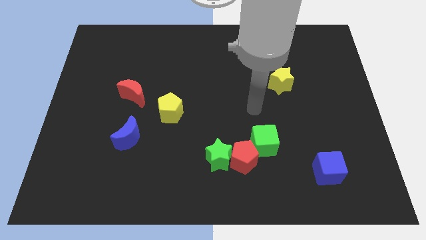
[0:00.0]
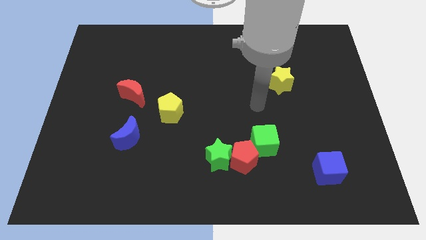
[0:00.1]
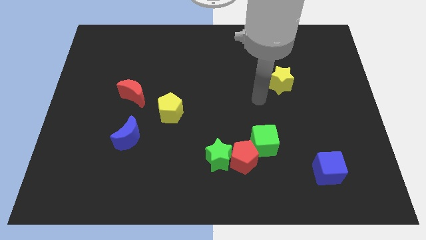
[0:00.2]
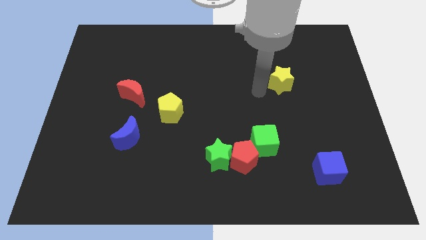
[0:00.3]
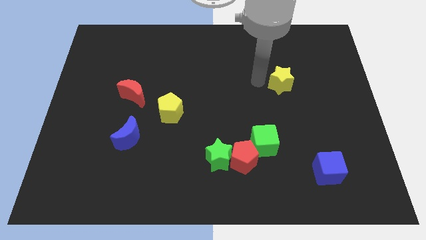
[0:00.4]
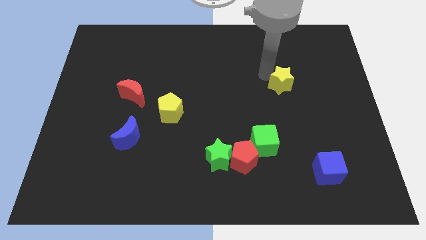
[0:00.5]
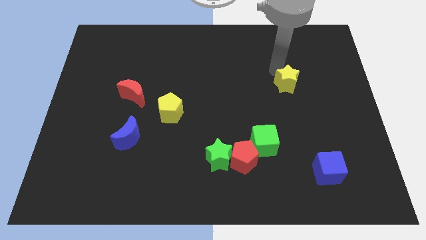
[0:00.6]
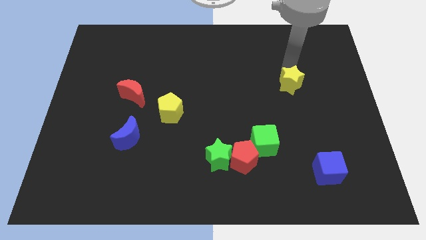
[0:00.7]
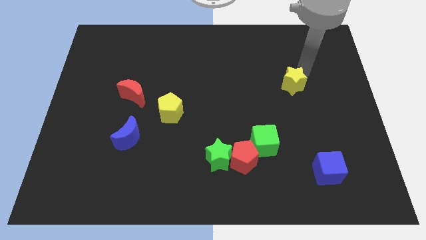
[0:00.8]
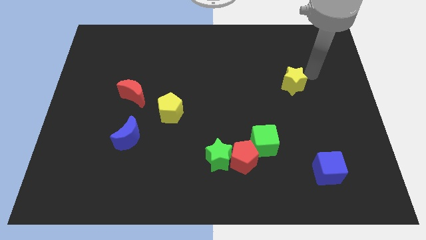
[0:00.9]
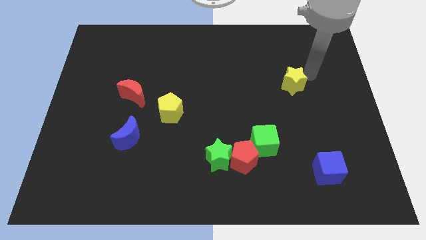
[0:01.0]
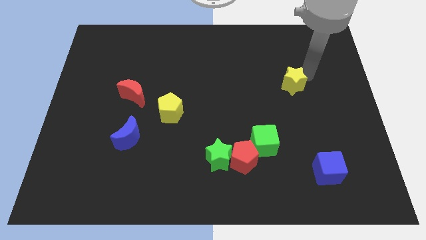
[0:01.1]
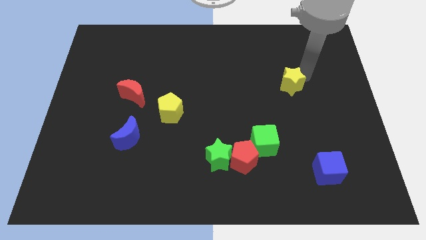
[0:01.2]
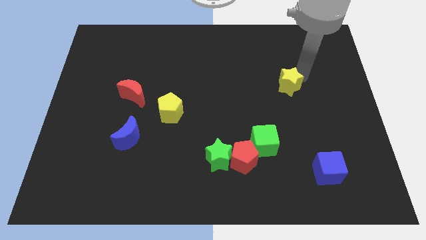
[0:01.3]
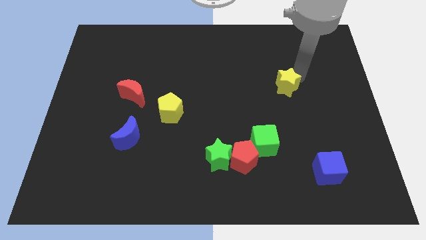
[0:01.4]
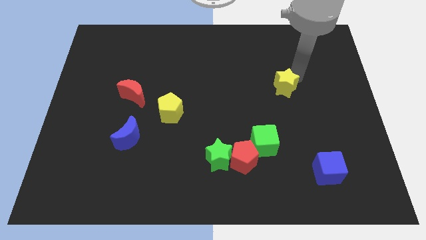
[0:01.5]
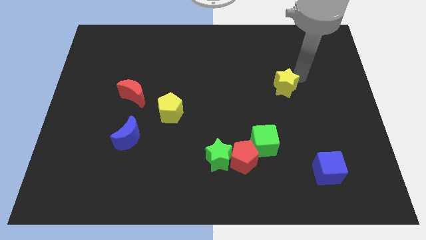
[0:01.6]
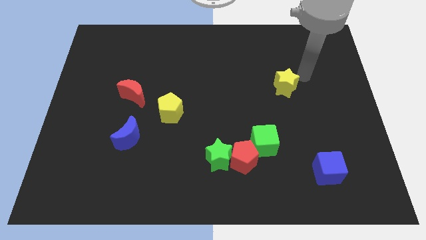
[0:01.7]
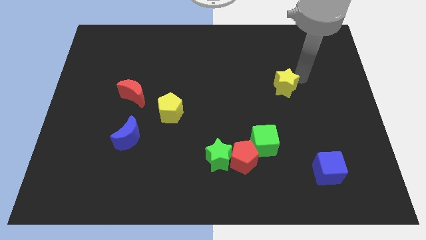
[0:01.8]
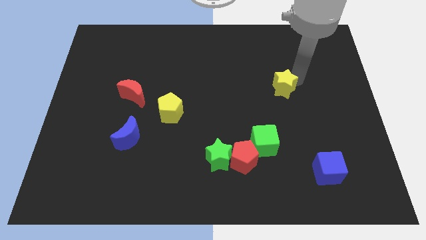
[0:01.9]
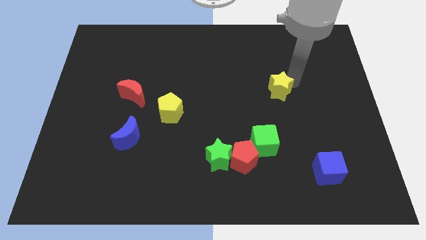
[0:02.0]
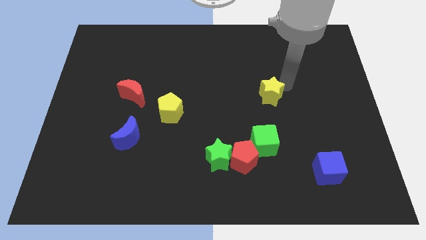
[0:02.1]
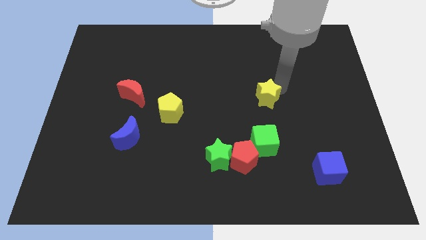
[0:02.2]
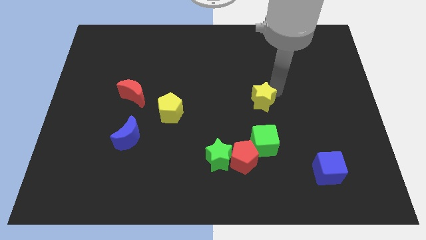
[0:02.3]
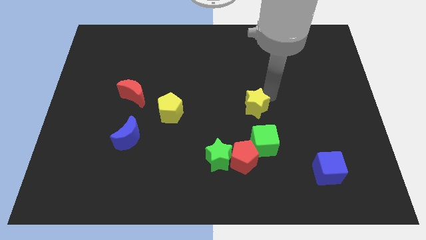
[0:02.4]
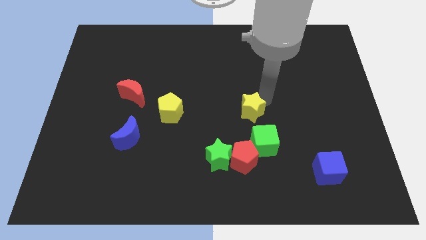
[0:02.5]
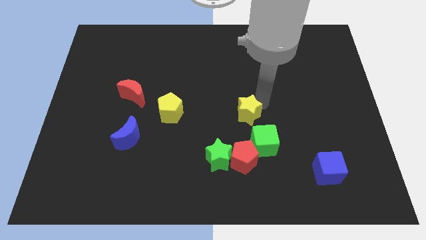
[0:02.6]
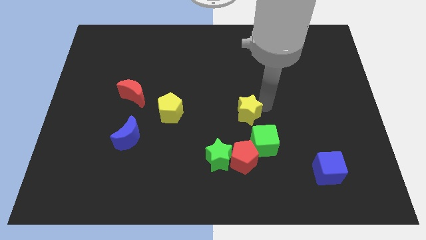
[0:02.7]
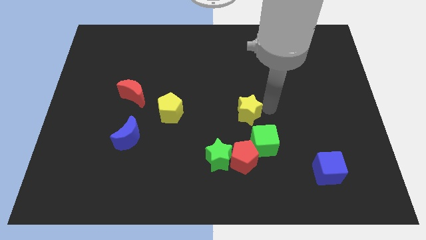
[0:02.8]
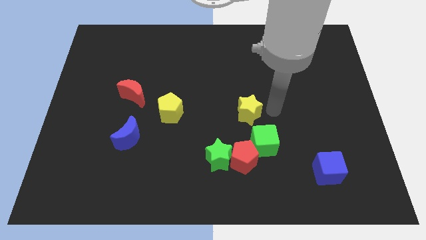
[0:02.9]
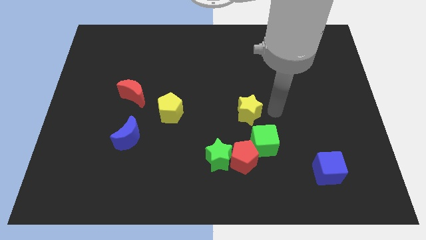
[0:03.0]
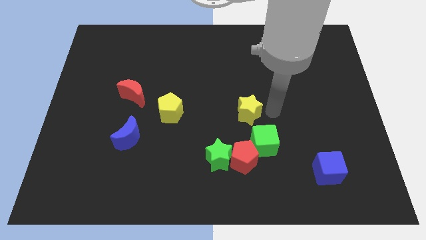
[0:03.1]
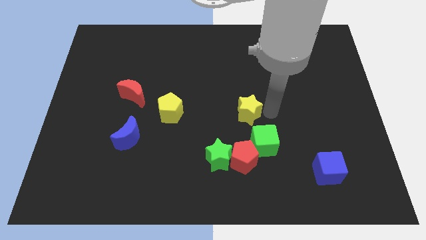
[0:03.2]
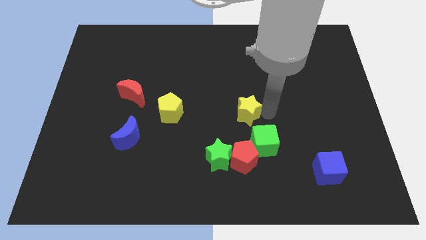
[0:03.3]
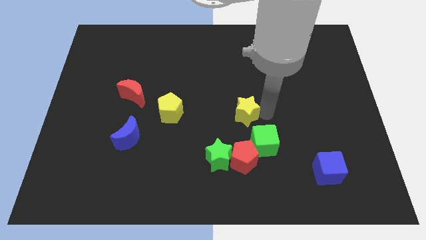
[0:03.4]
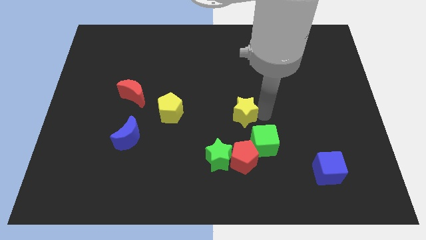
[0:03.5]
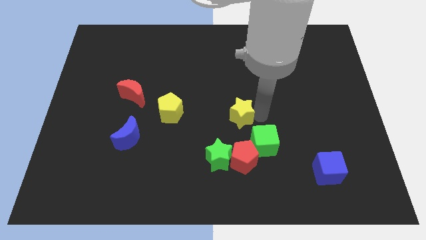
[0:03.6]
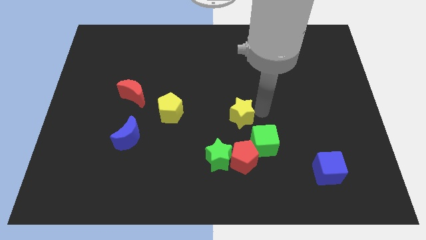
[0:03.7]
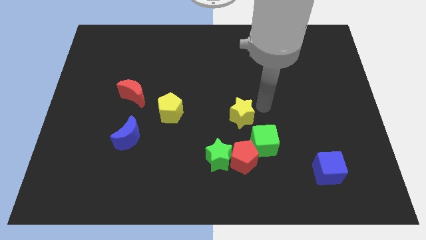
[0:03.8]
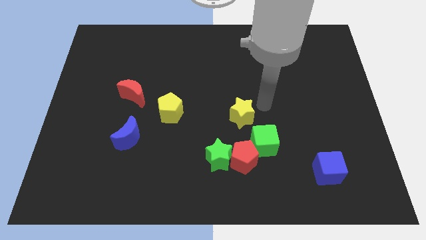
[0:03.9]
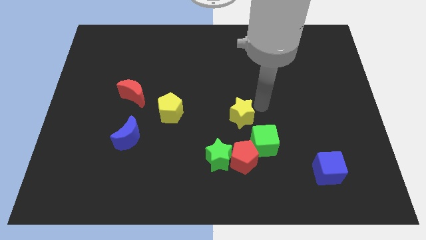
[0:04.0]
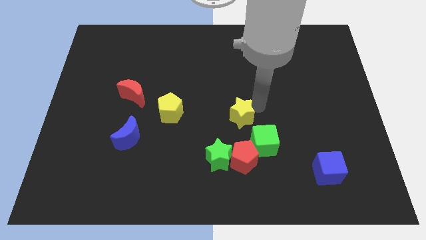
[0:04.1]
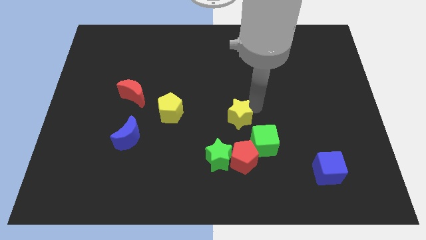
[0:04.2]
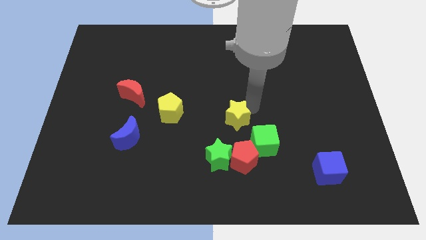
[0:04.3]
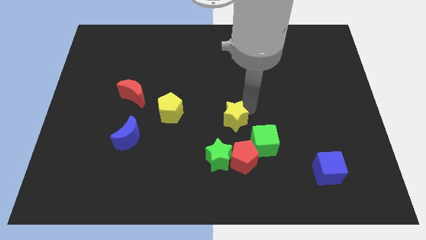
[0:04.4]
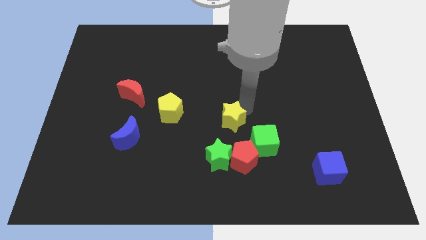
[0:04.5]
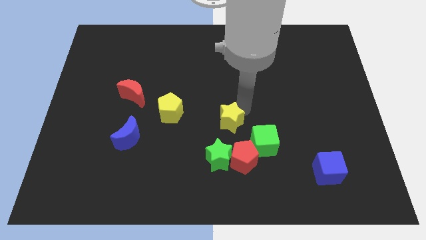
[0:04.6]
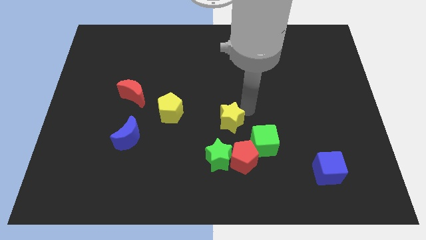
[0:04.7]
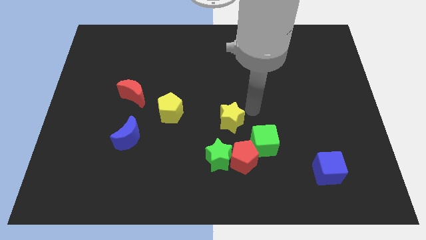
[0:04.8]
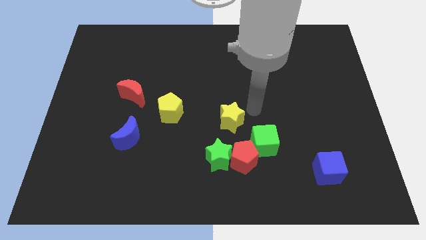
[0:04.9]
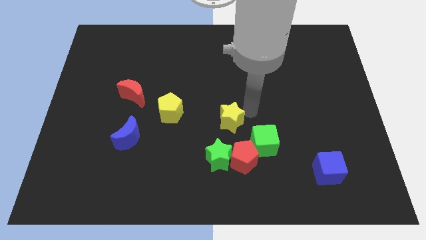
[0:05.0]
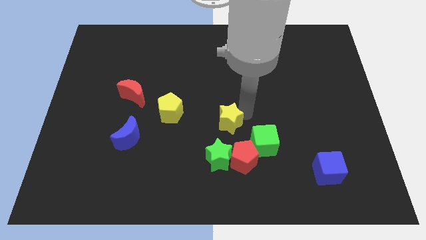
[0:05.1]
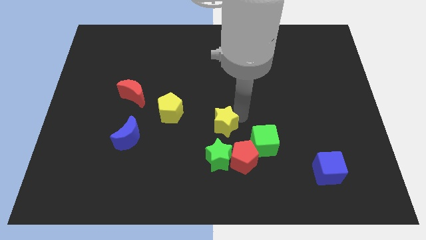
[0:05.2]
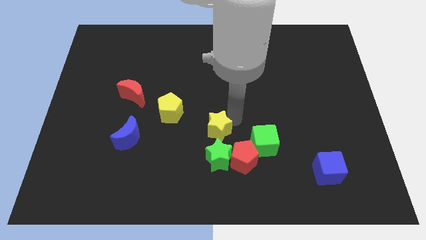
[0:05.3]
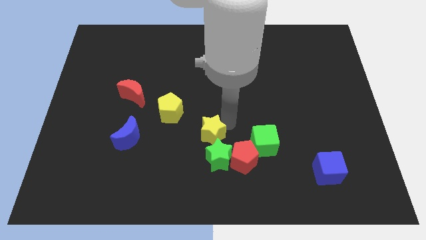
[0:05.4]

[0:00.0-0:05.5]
put the yellow star diagonally up and to the left of the green star

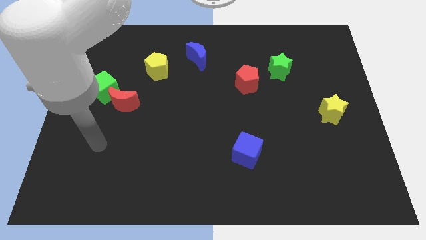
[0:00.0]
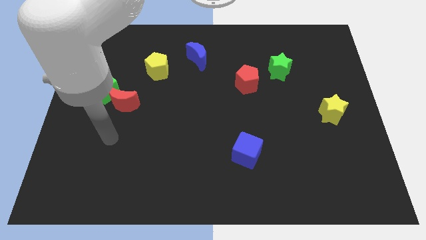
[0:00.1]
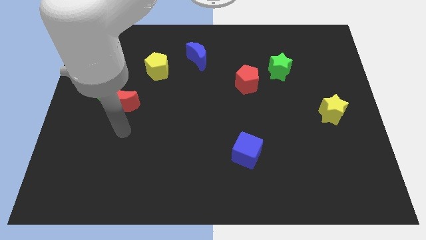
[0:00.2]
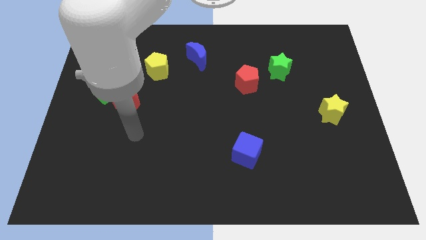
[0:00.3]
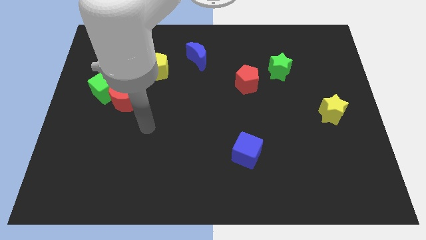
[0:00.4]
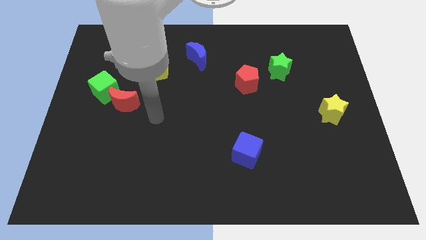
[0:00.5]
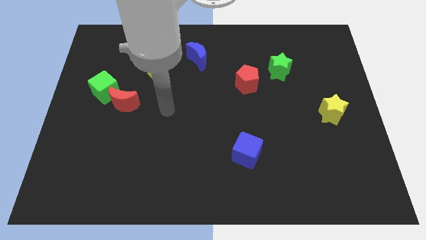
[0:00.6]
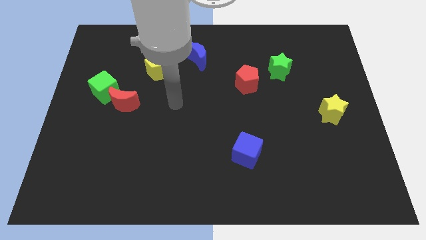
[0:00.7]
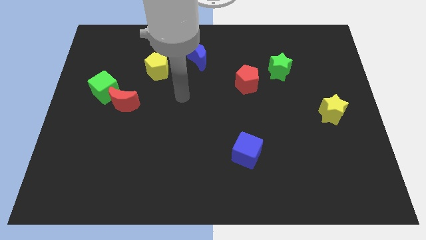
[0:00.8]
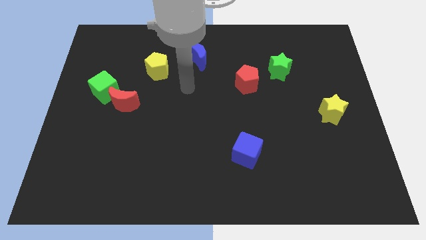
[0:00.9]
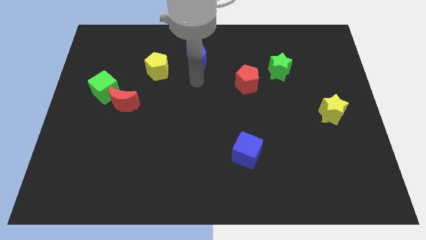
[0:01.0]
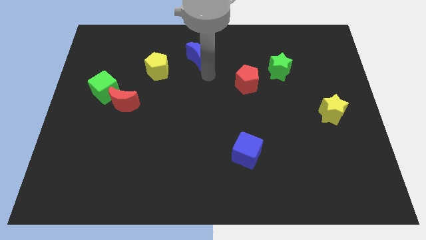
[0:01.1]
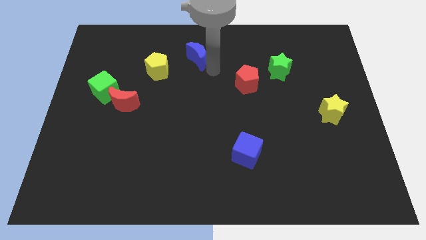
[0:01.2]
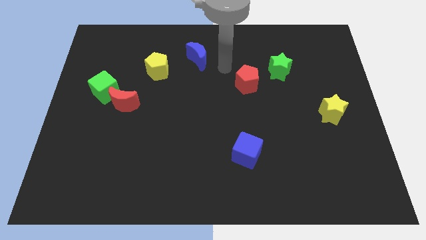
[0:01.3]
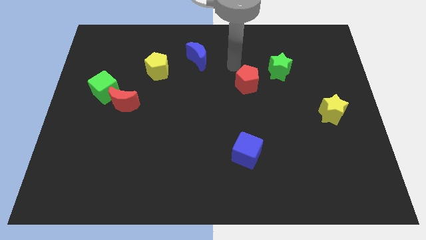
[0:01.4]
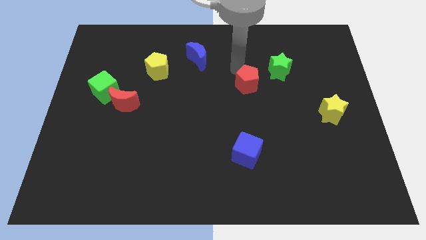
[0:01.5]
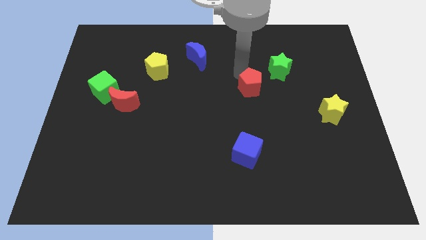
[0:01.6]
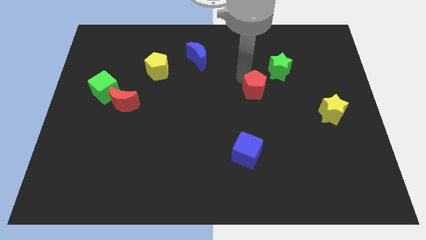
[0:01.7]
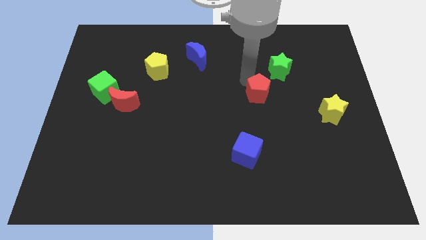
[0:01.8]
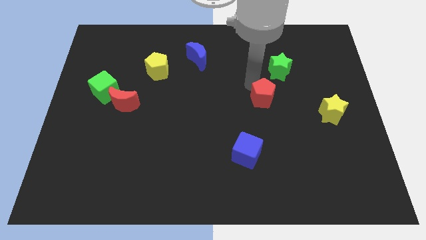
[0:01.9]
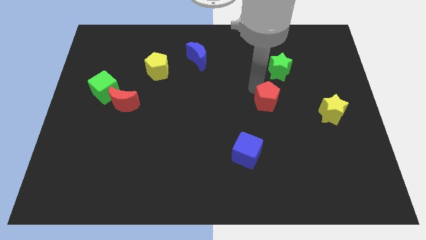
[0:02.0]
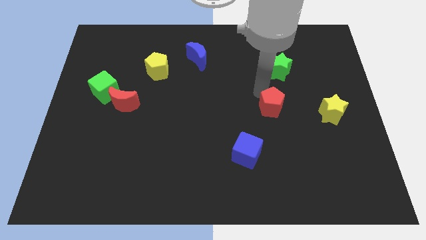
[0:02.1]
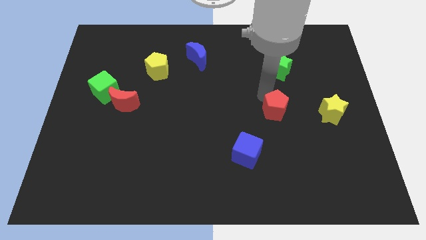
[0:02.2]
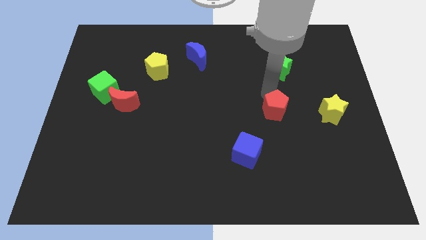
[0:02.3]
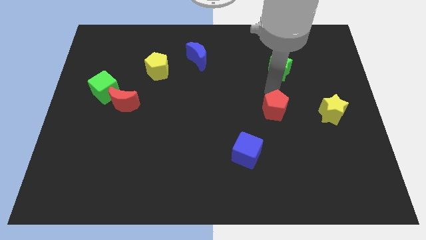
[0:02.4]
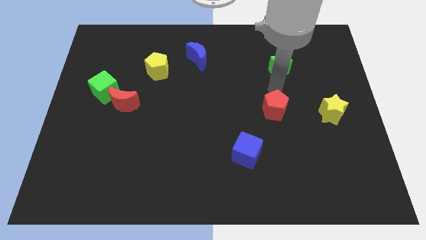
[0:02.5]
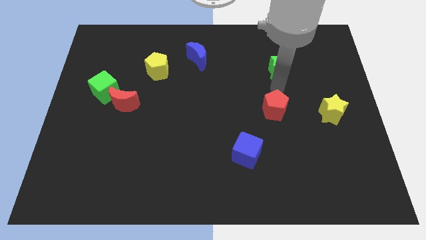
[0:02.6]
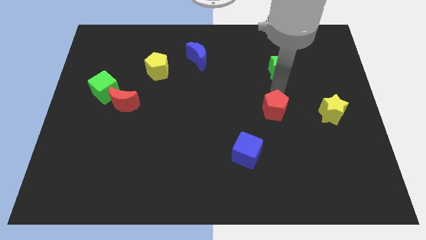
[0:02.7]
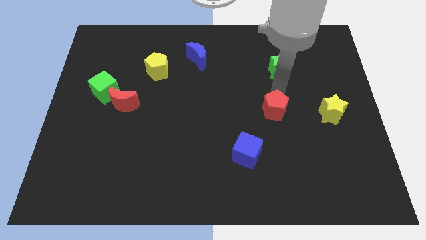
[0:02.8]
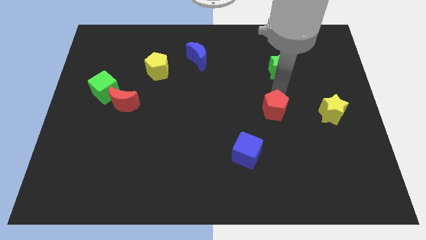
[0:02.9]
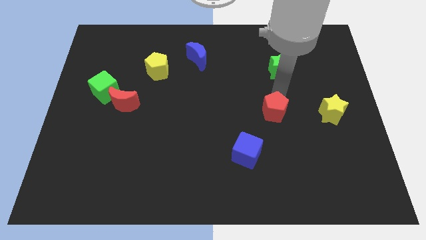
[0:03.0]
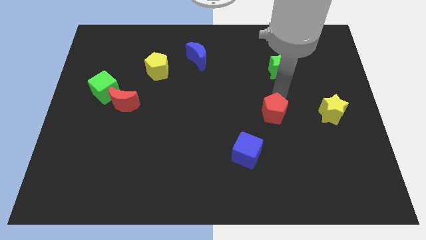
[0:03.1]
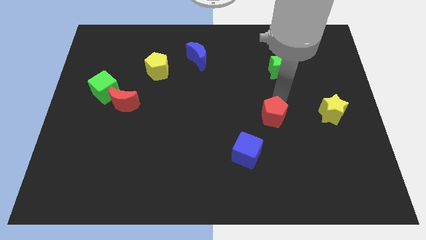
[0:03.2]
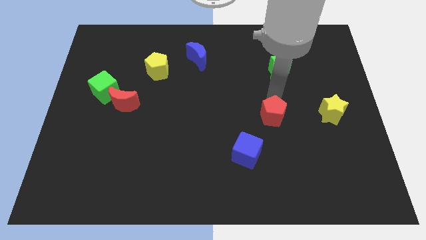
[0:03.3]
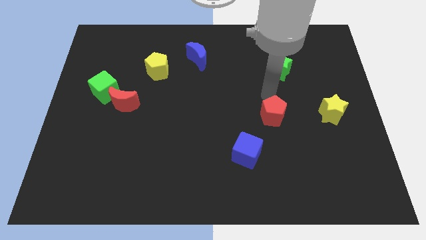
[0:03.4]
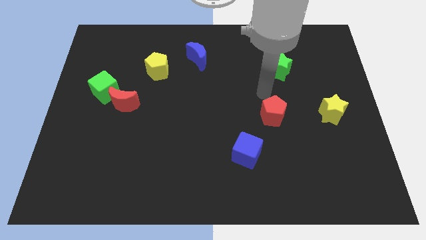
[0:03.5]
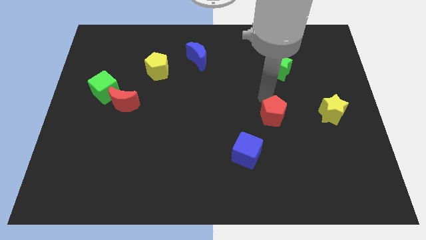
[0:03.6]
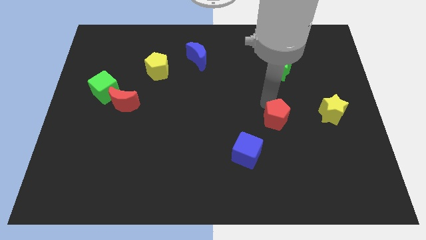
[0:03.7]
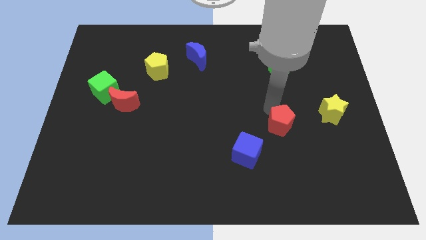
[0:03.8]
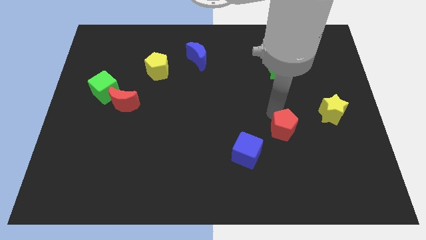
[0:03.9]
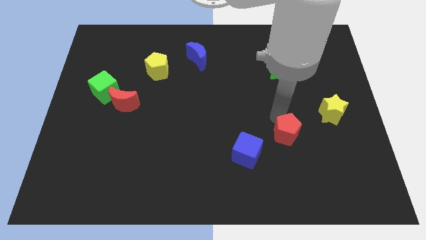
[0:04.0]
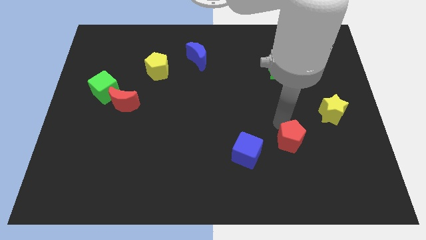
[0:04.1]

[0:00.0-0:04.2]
slide the red pentagon to the right side of the blue cube
